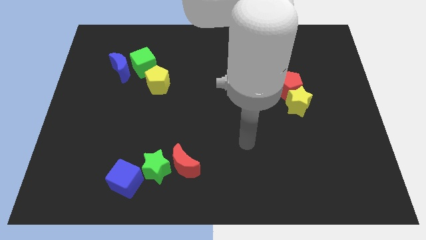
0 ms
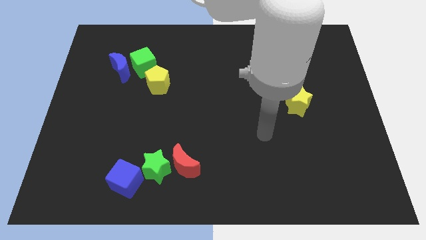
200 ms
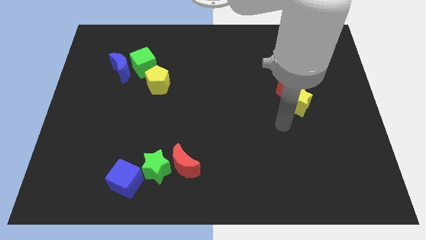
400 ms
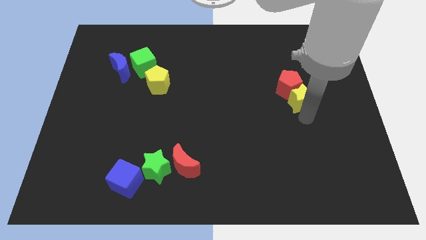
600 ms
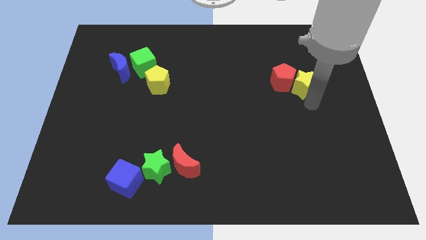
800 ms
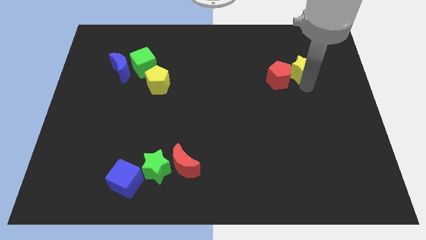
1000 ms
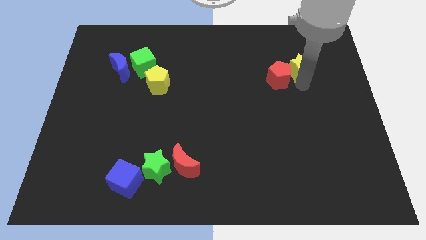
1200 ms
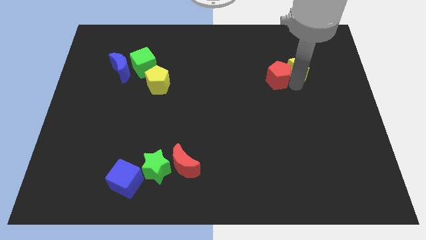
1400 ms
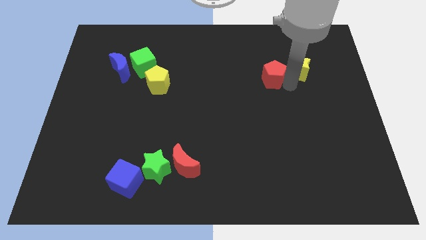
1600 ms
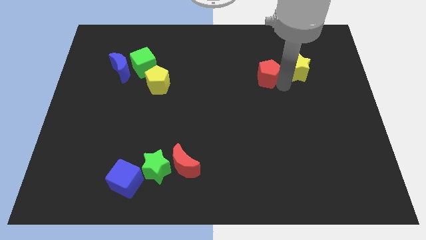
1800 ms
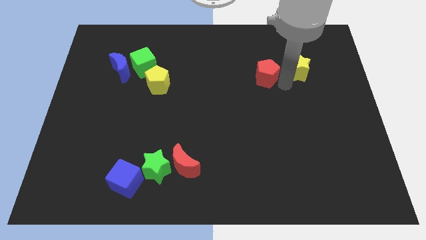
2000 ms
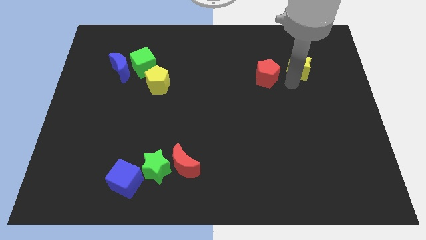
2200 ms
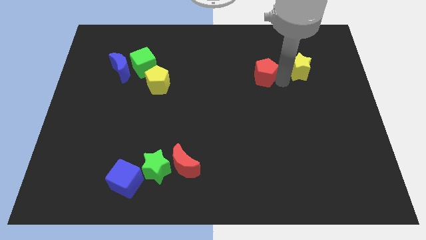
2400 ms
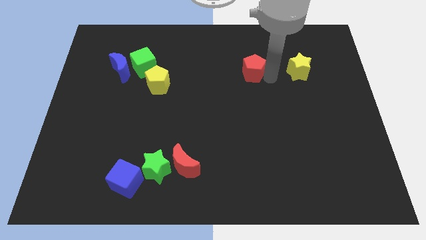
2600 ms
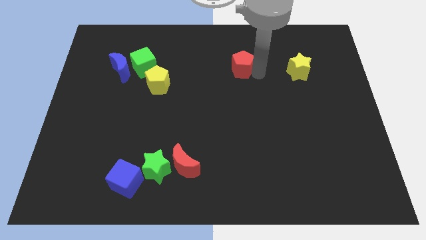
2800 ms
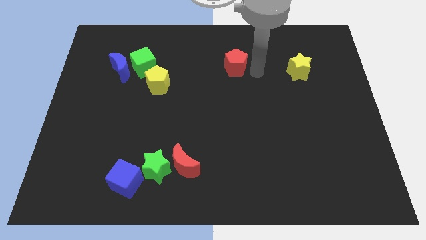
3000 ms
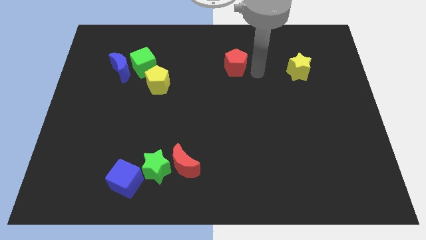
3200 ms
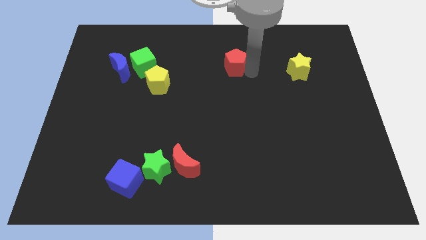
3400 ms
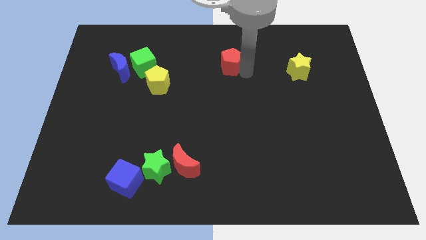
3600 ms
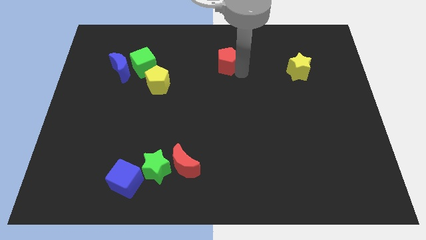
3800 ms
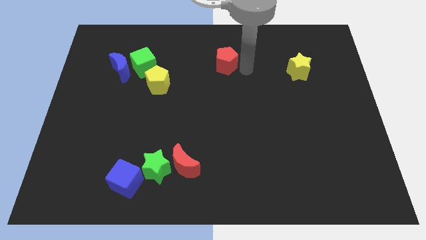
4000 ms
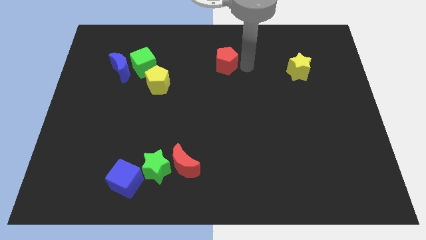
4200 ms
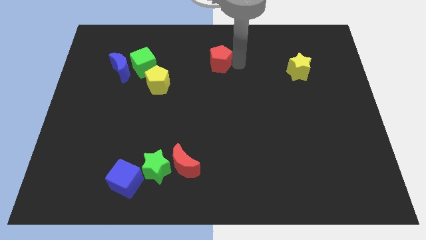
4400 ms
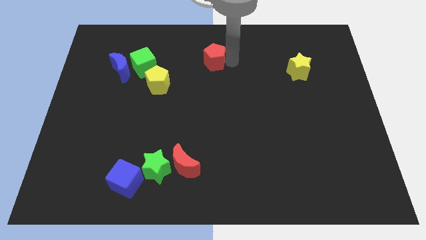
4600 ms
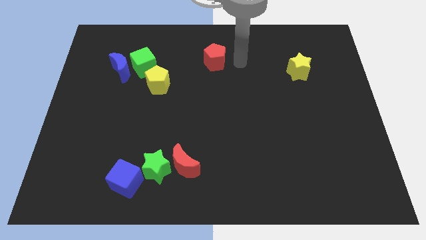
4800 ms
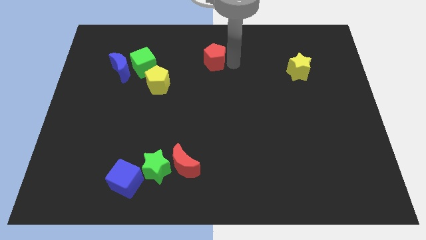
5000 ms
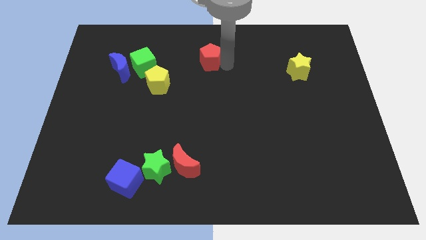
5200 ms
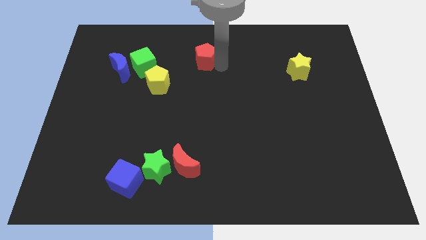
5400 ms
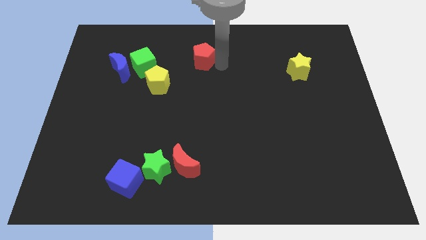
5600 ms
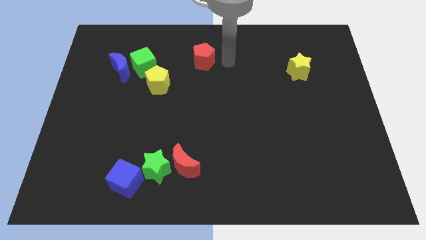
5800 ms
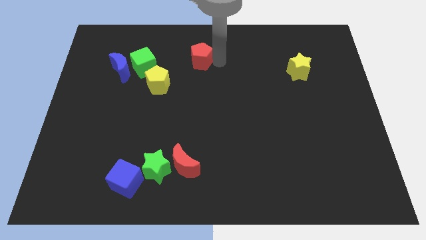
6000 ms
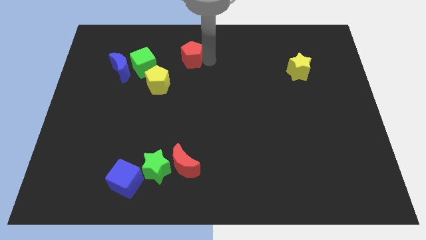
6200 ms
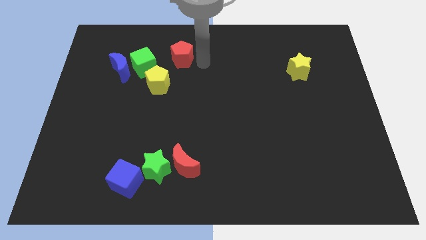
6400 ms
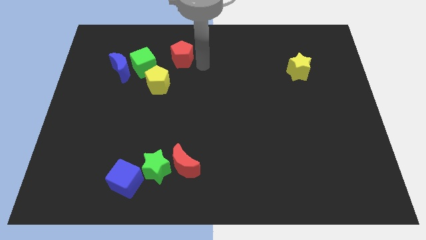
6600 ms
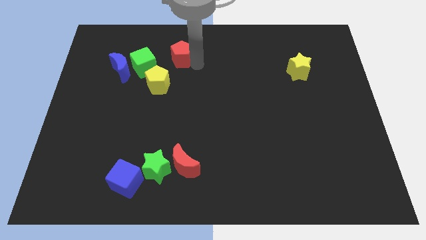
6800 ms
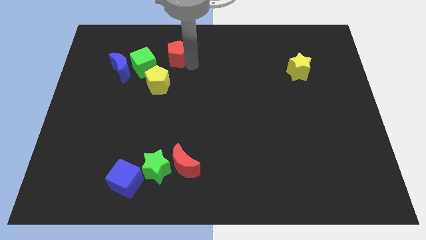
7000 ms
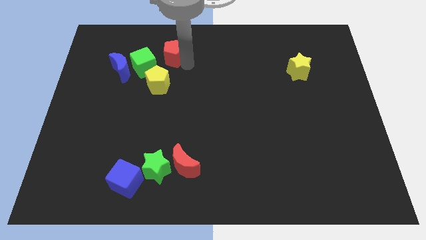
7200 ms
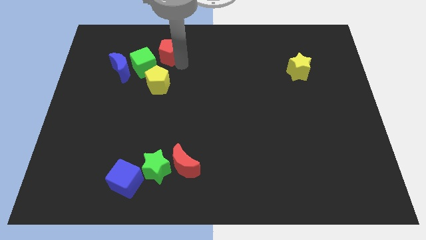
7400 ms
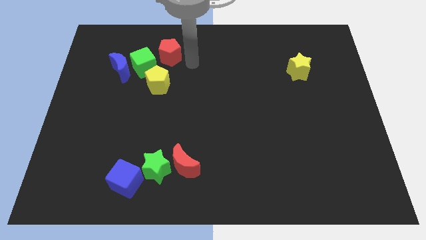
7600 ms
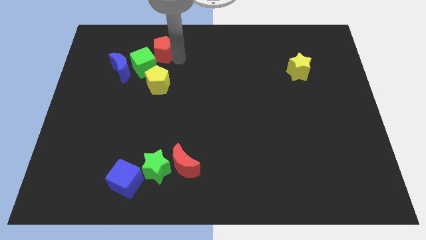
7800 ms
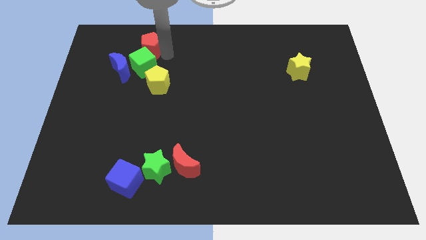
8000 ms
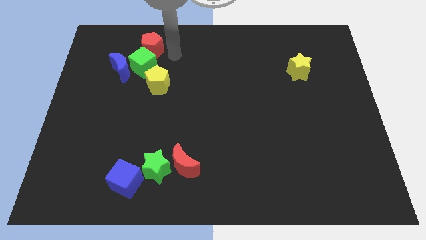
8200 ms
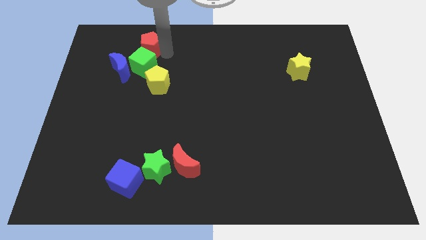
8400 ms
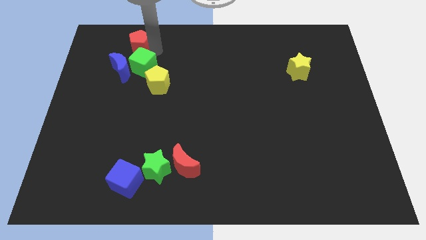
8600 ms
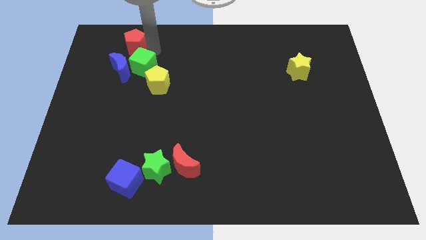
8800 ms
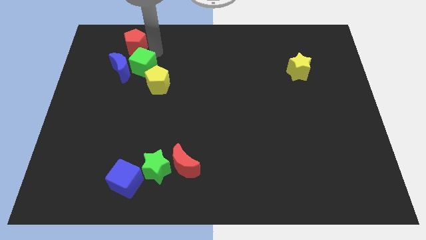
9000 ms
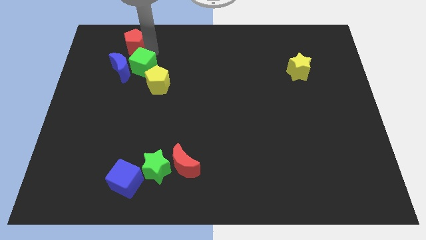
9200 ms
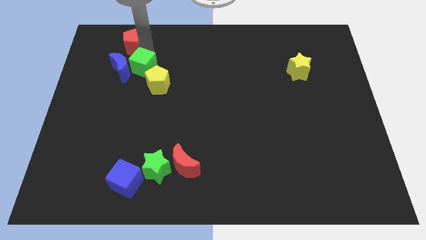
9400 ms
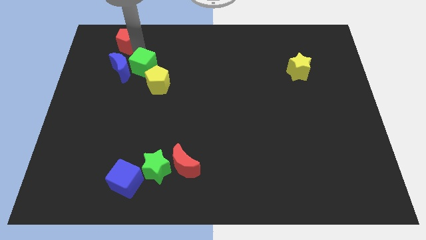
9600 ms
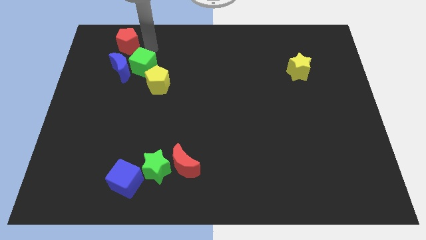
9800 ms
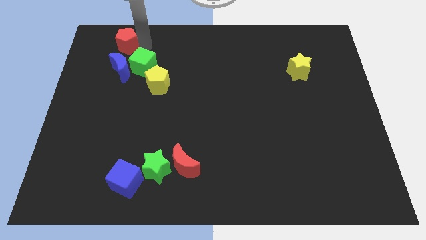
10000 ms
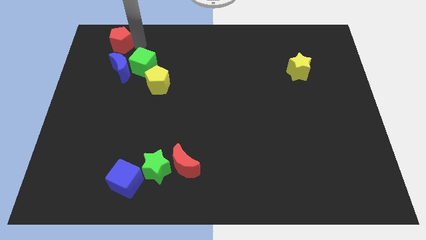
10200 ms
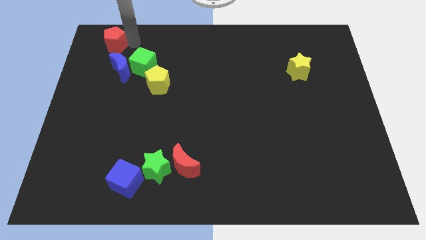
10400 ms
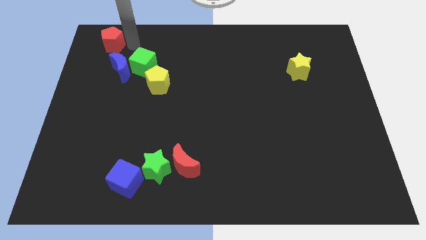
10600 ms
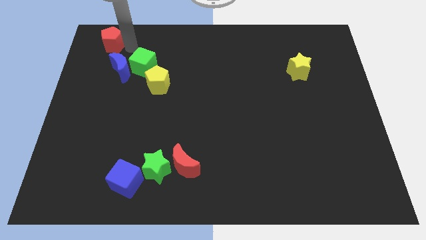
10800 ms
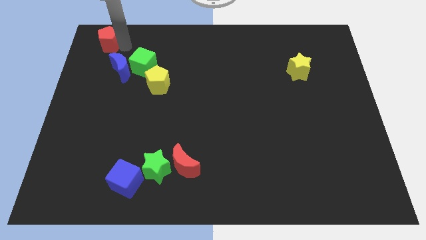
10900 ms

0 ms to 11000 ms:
push the red pentagon to the top left of the board

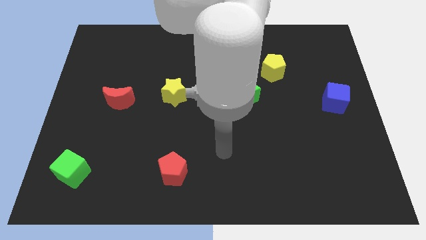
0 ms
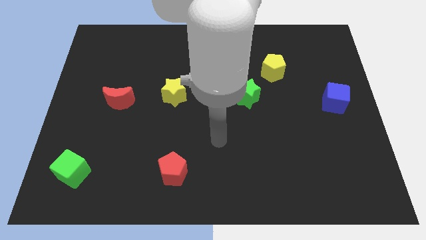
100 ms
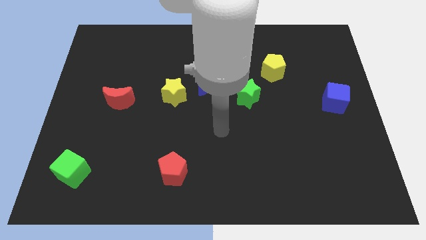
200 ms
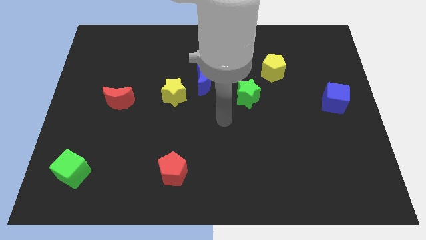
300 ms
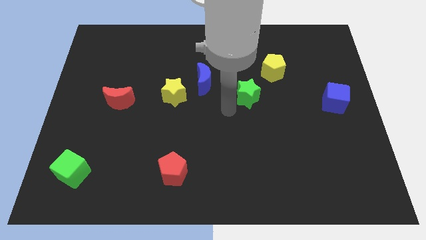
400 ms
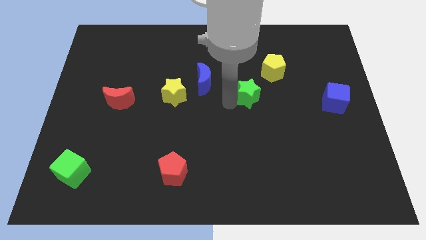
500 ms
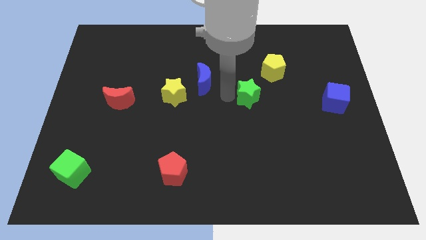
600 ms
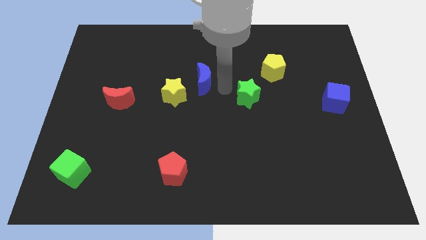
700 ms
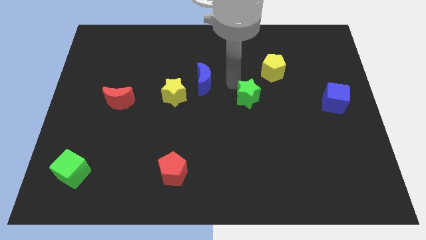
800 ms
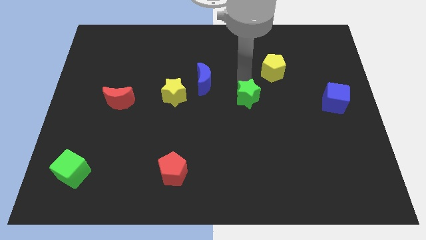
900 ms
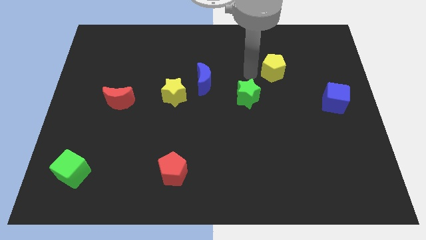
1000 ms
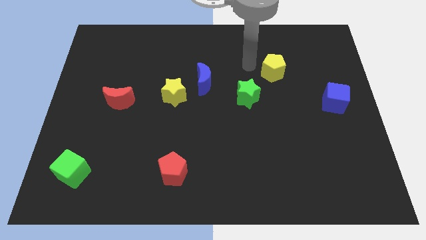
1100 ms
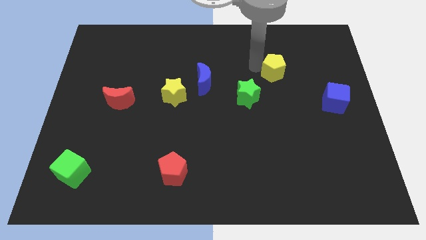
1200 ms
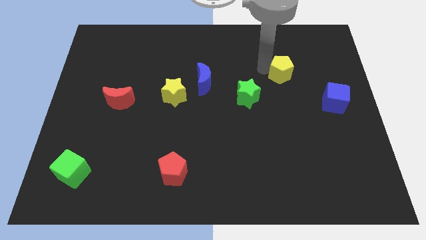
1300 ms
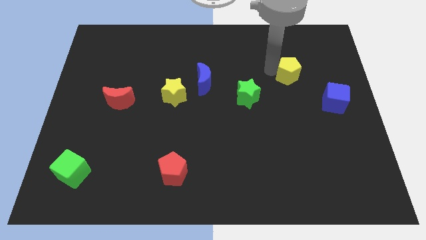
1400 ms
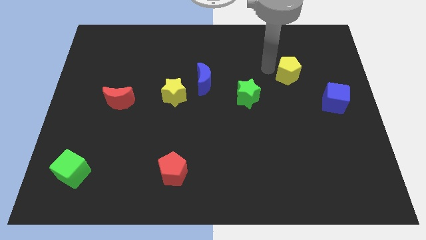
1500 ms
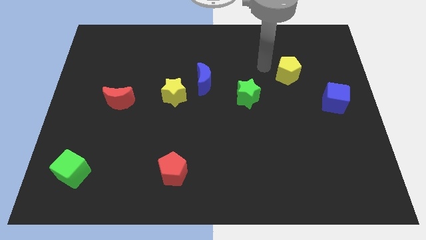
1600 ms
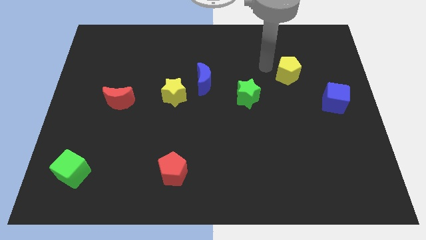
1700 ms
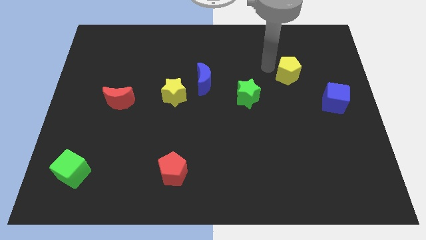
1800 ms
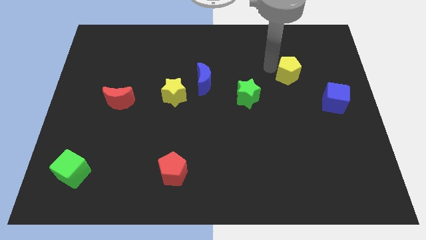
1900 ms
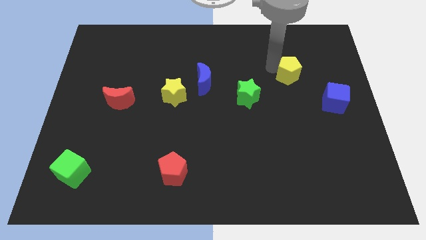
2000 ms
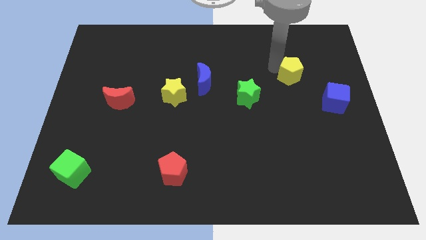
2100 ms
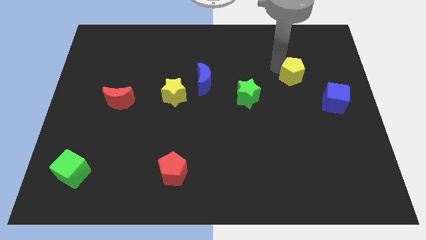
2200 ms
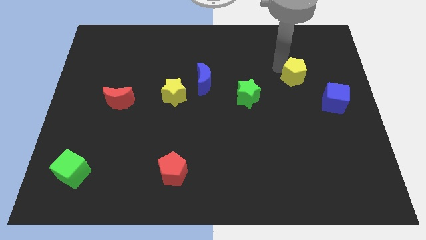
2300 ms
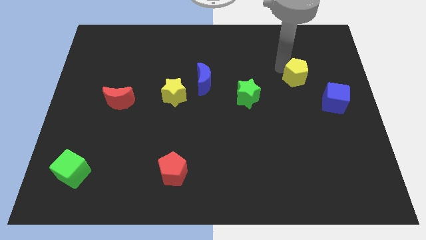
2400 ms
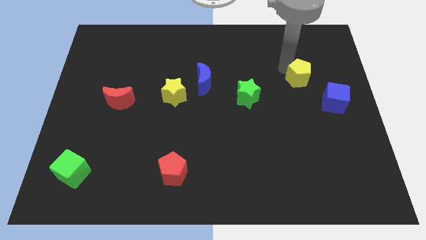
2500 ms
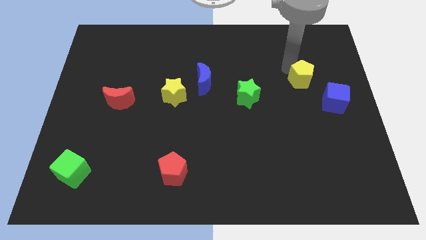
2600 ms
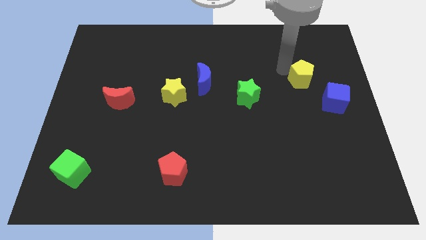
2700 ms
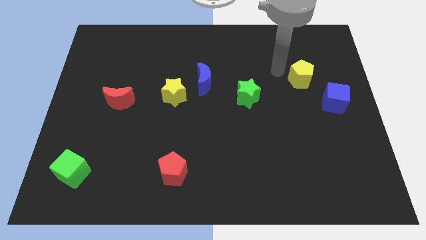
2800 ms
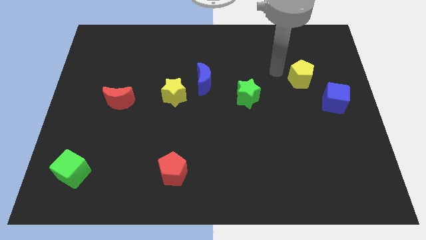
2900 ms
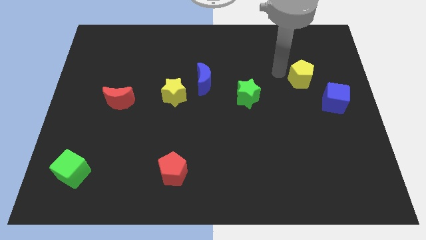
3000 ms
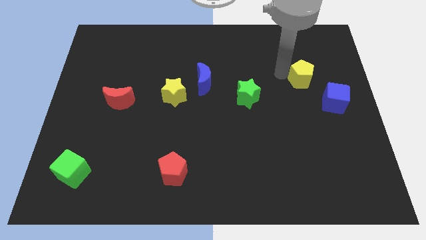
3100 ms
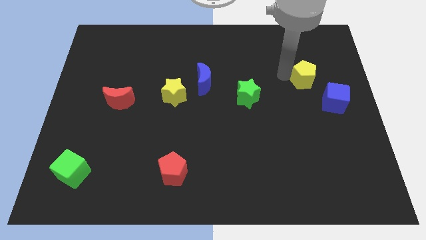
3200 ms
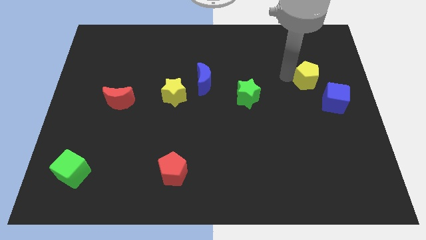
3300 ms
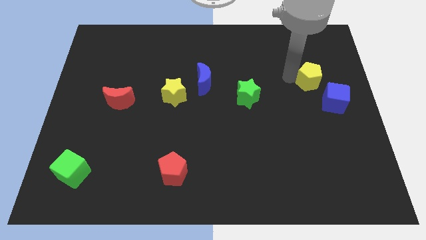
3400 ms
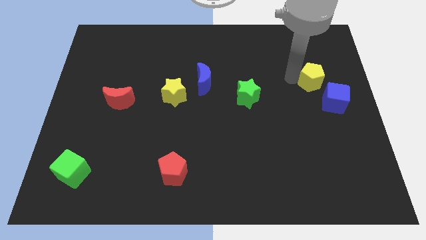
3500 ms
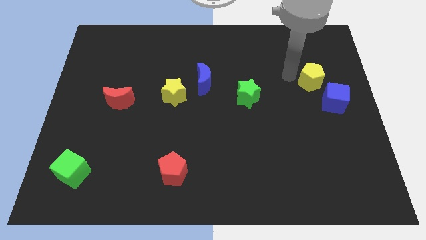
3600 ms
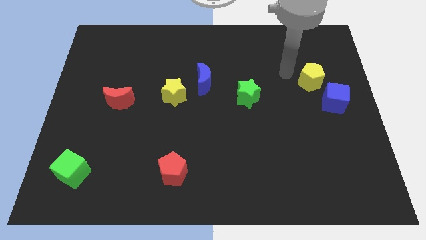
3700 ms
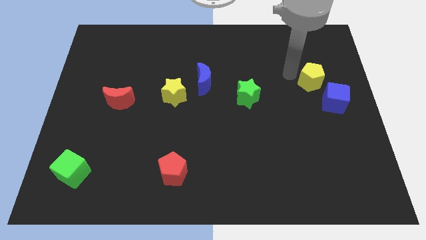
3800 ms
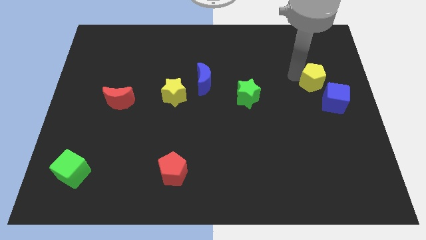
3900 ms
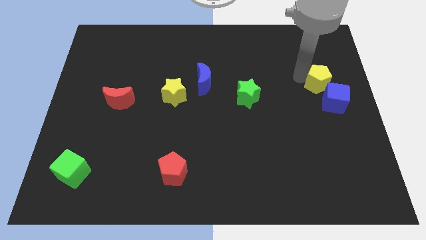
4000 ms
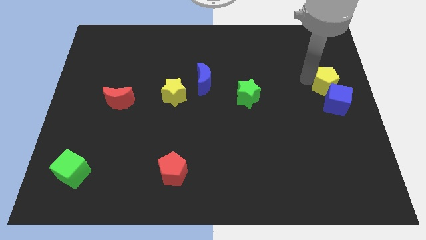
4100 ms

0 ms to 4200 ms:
slide the yellow pentagon to the right side of the board
